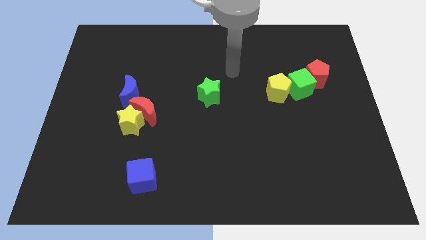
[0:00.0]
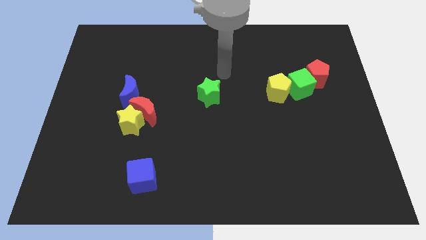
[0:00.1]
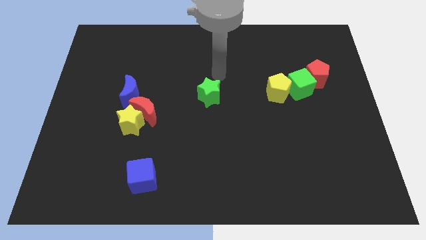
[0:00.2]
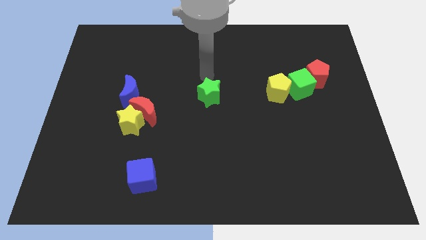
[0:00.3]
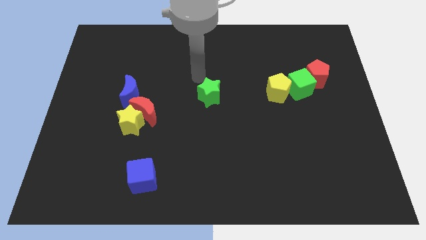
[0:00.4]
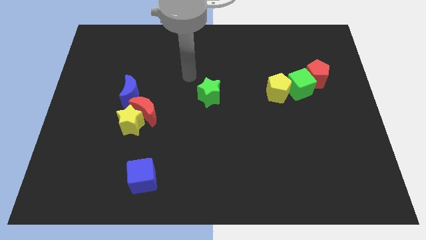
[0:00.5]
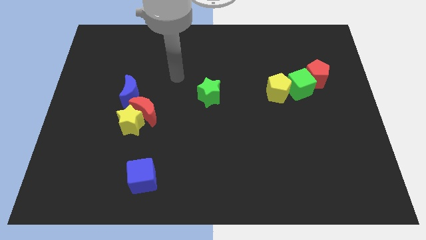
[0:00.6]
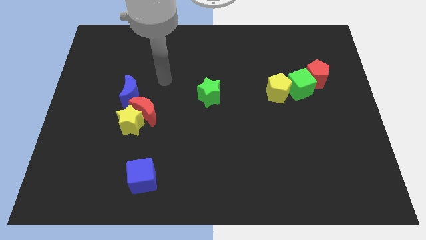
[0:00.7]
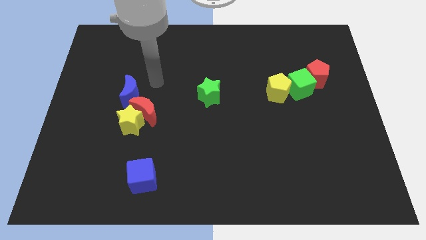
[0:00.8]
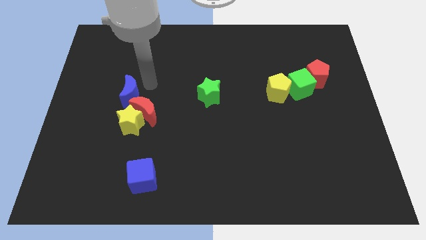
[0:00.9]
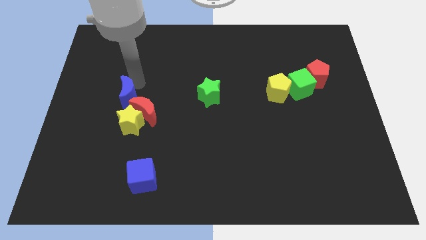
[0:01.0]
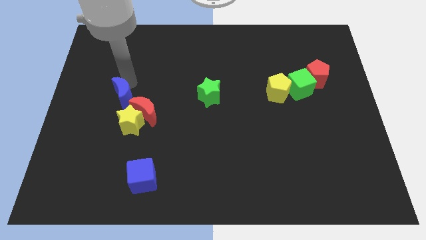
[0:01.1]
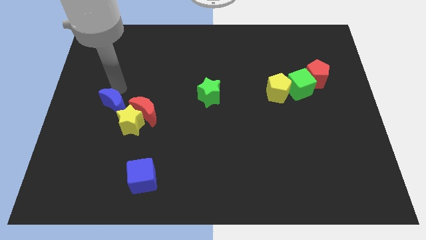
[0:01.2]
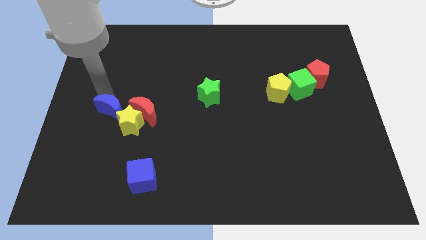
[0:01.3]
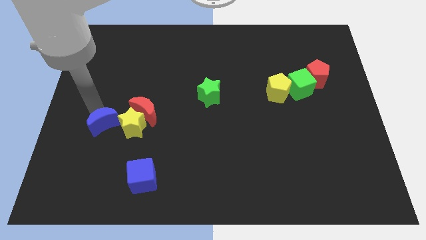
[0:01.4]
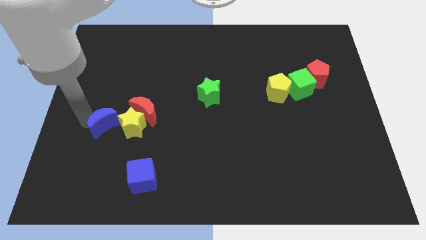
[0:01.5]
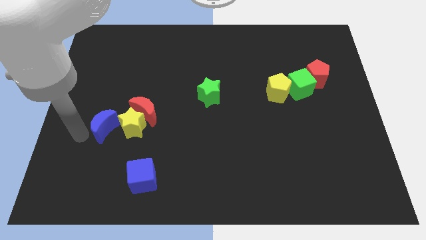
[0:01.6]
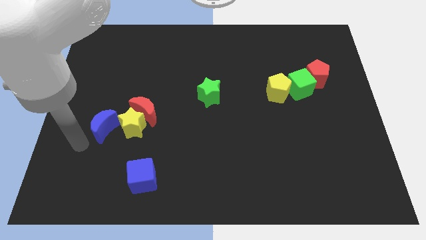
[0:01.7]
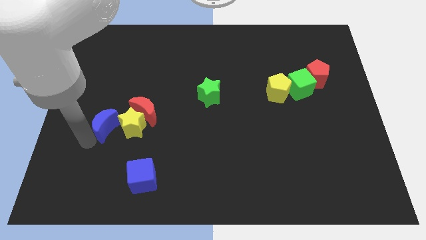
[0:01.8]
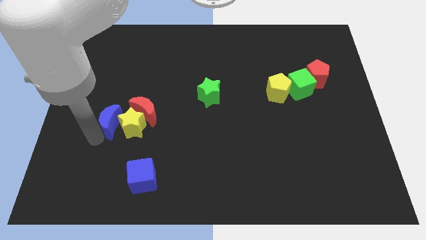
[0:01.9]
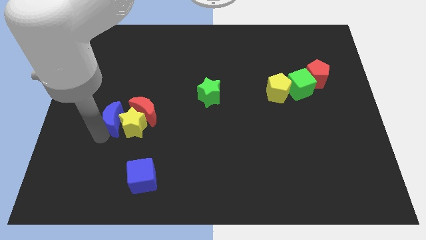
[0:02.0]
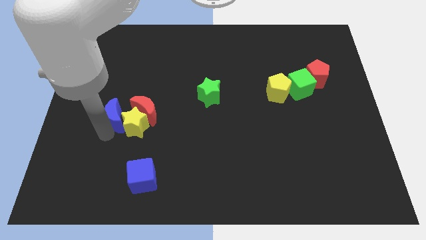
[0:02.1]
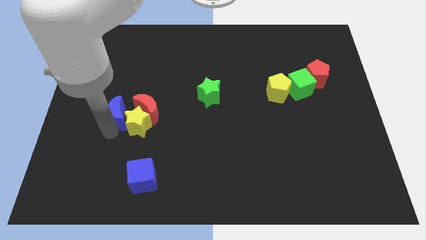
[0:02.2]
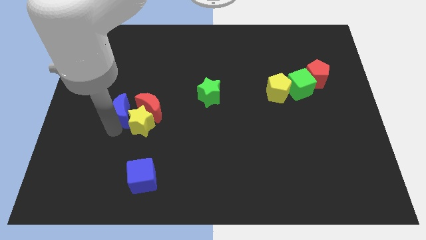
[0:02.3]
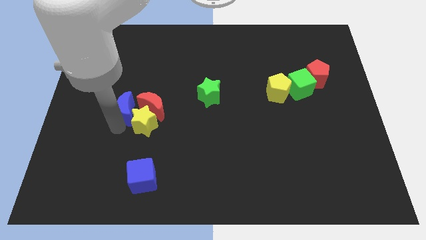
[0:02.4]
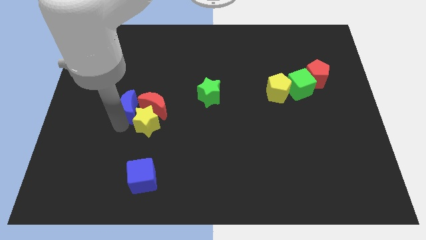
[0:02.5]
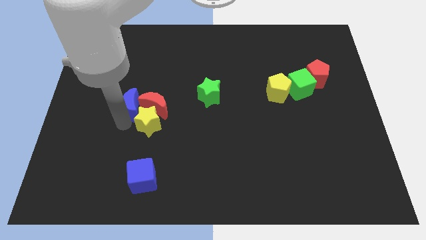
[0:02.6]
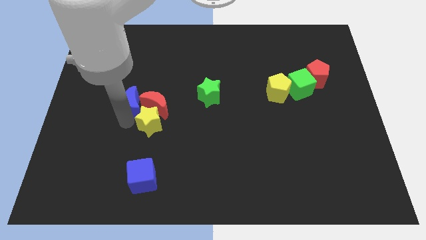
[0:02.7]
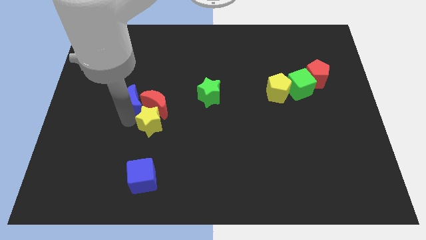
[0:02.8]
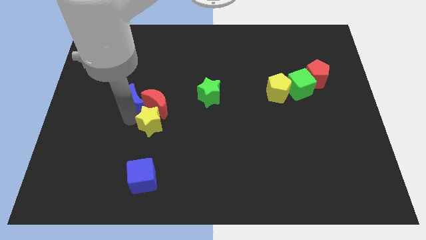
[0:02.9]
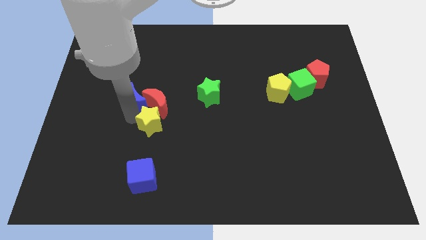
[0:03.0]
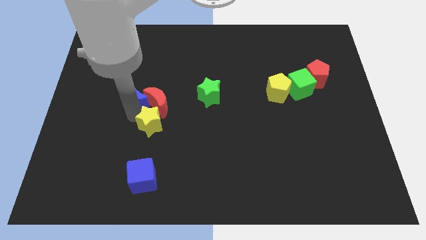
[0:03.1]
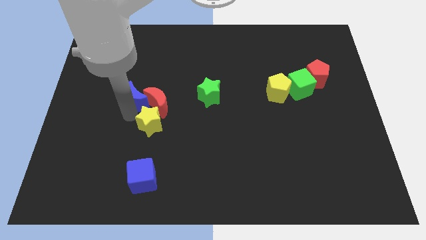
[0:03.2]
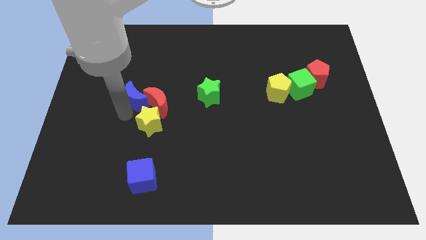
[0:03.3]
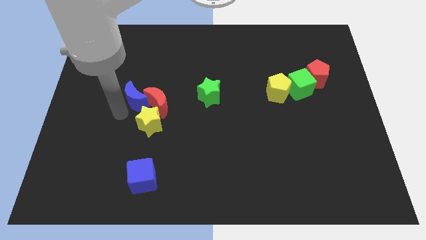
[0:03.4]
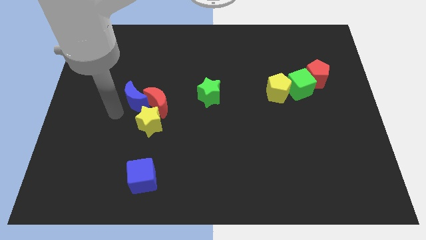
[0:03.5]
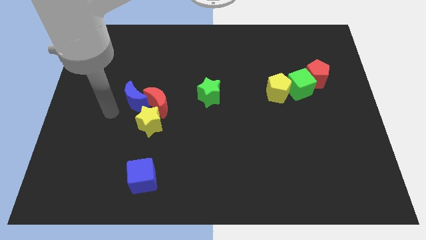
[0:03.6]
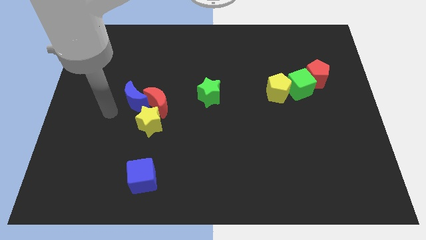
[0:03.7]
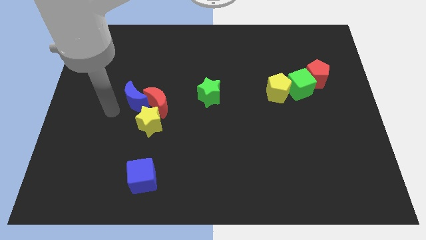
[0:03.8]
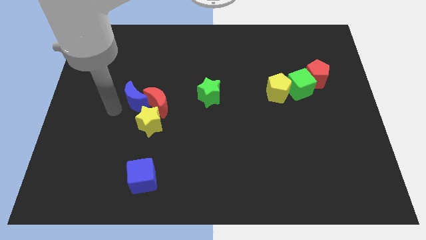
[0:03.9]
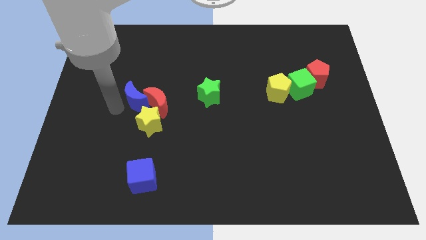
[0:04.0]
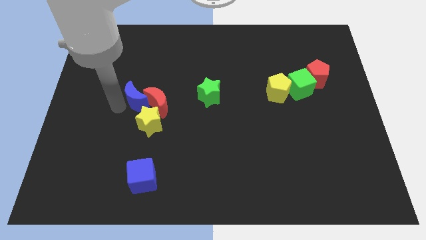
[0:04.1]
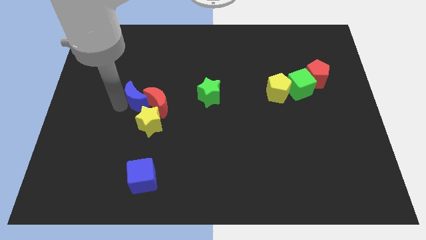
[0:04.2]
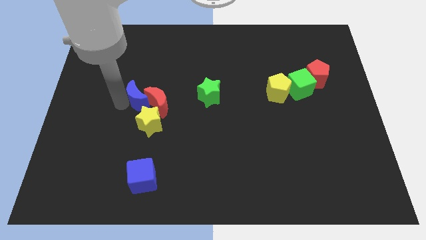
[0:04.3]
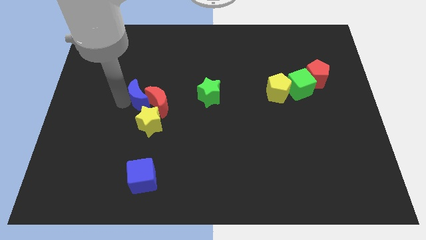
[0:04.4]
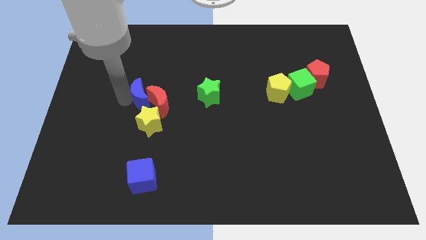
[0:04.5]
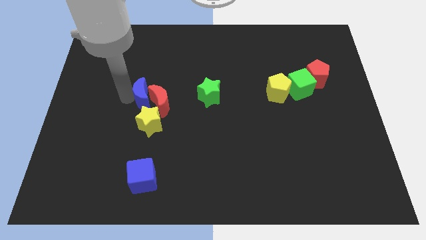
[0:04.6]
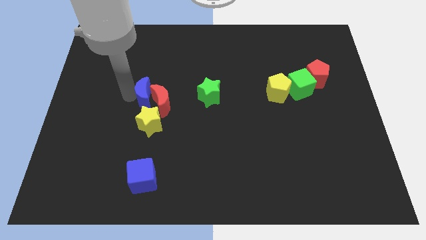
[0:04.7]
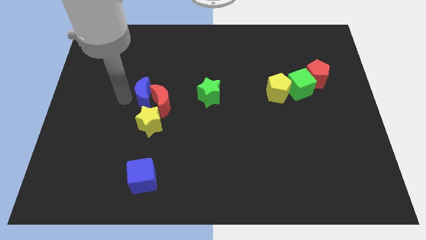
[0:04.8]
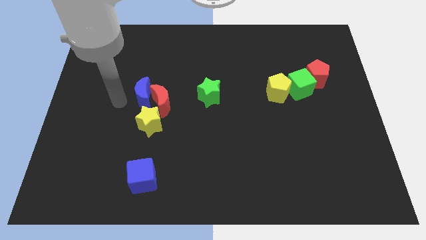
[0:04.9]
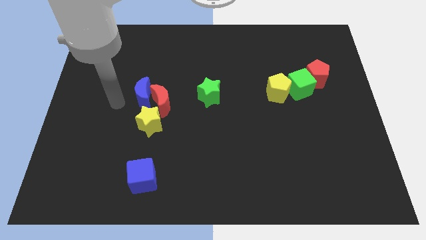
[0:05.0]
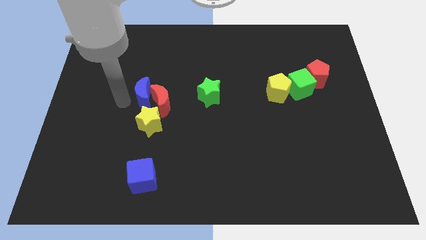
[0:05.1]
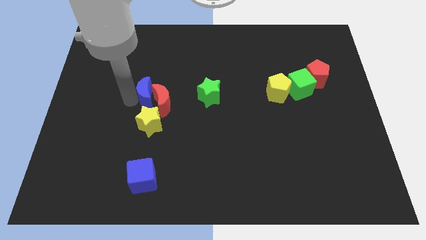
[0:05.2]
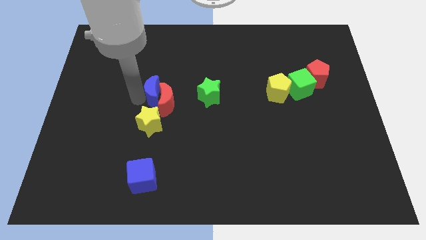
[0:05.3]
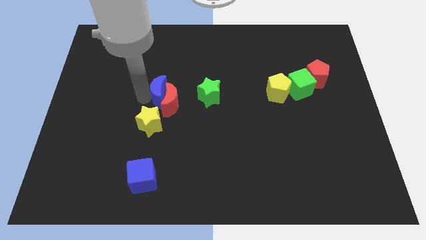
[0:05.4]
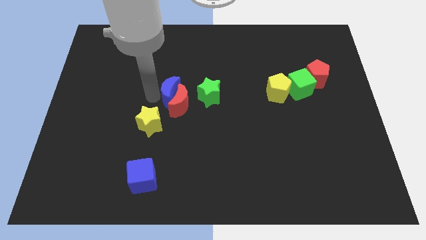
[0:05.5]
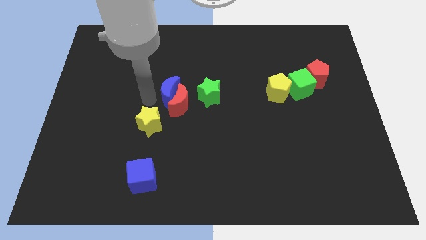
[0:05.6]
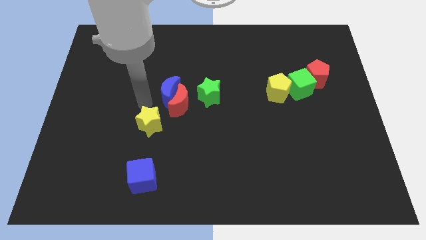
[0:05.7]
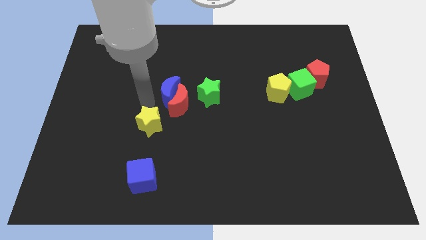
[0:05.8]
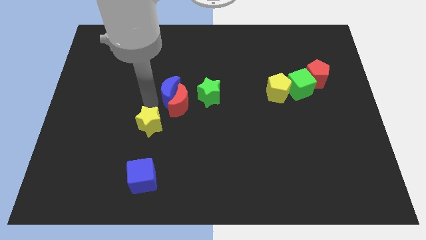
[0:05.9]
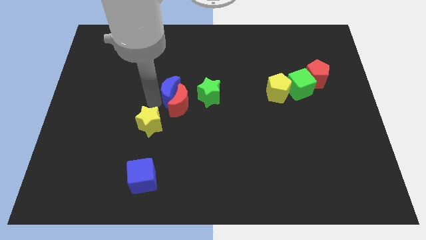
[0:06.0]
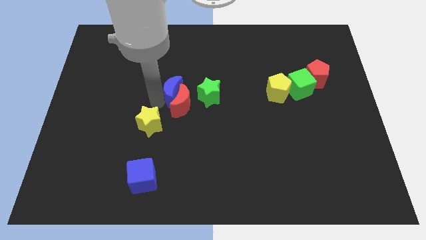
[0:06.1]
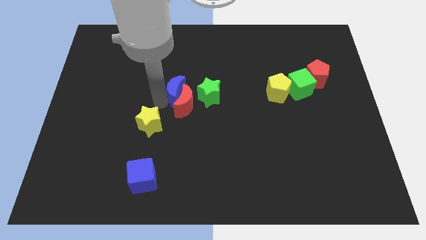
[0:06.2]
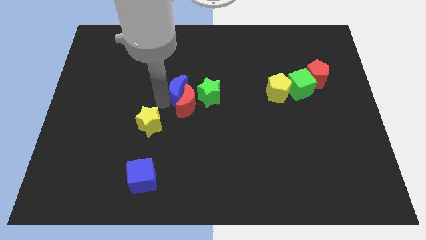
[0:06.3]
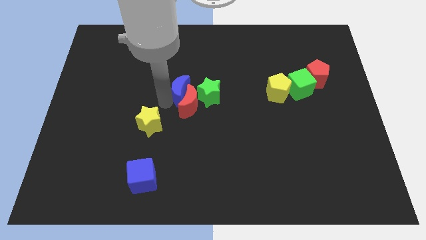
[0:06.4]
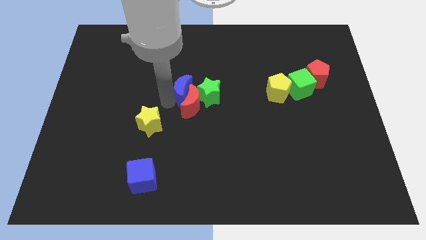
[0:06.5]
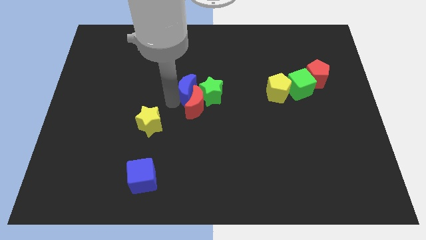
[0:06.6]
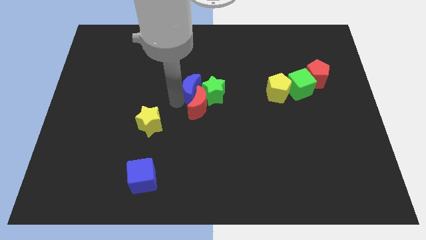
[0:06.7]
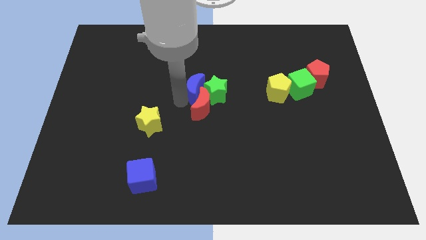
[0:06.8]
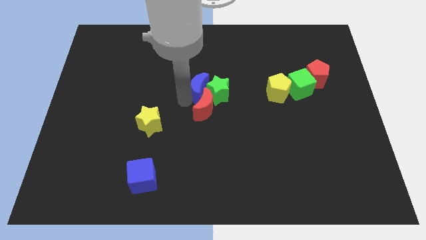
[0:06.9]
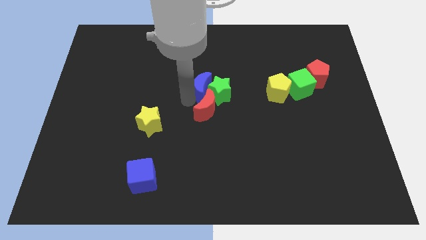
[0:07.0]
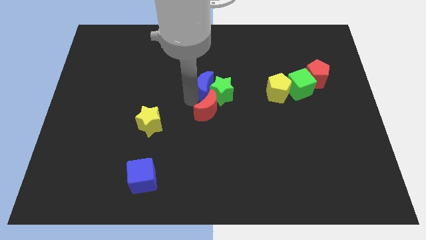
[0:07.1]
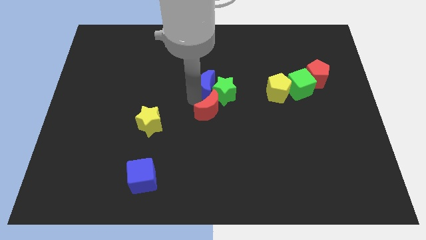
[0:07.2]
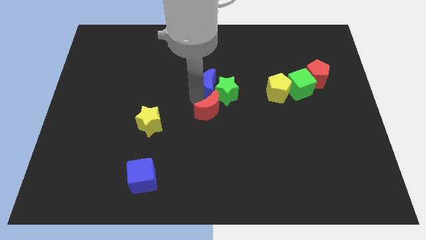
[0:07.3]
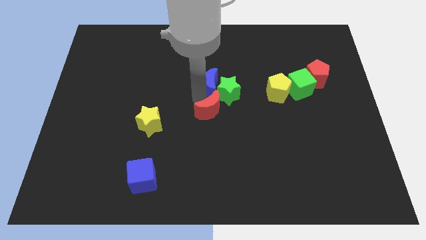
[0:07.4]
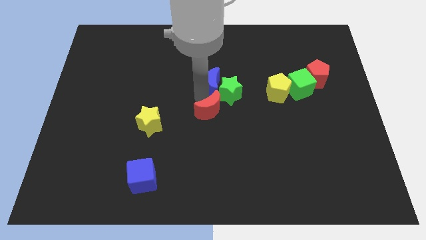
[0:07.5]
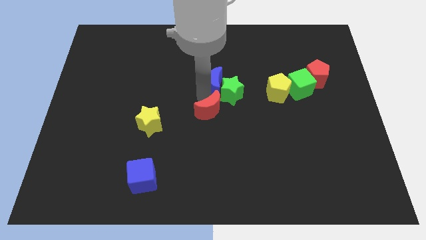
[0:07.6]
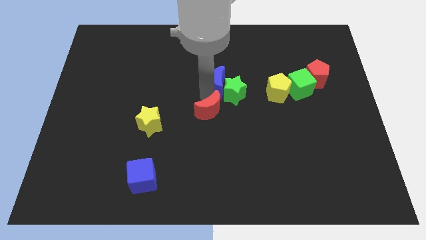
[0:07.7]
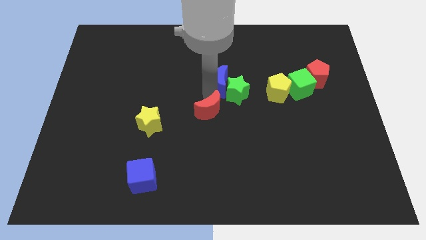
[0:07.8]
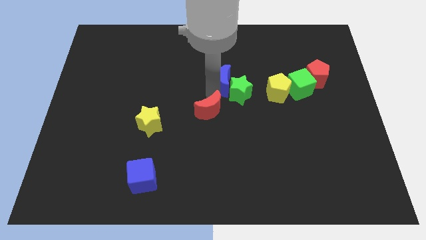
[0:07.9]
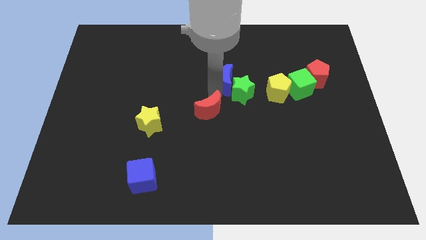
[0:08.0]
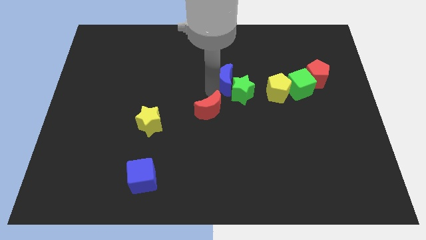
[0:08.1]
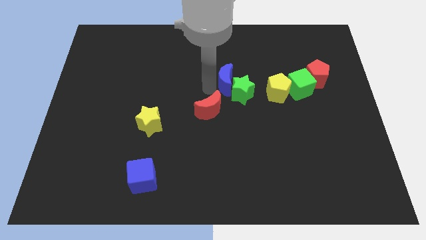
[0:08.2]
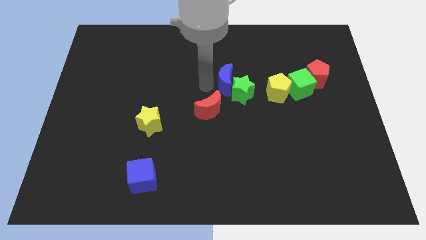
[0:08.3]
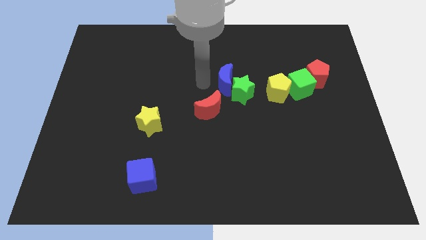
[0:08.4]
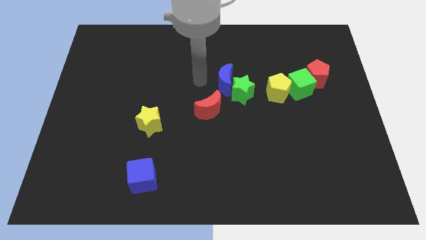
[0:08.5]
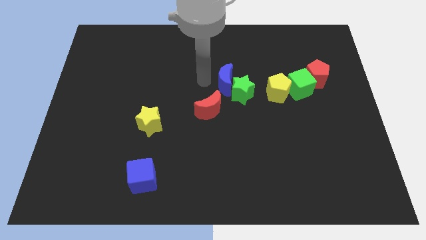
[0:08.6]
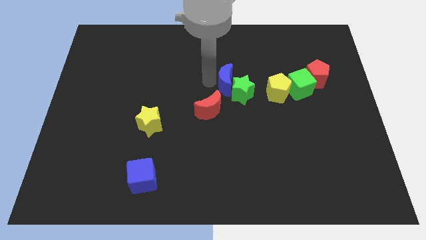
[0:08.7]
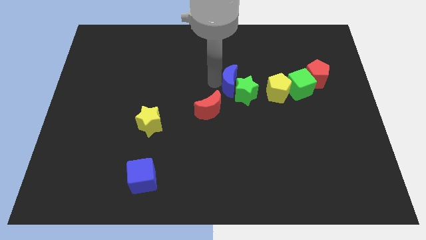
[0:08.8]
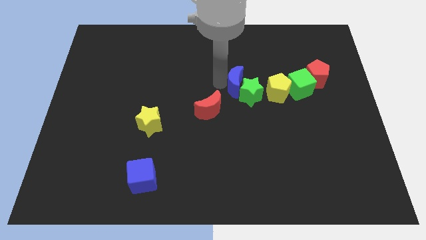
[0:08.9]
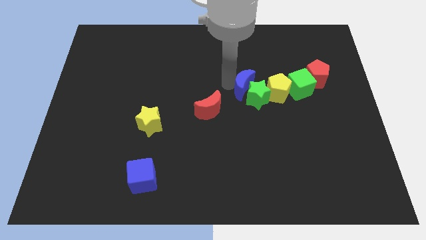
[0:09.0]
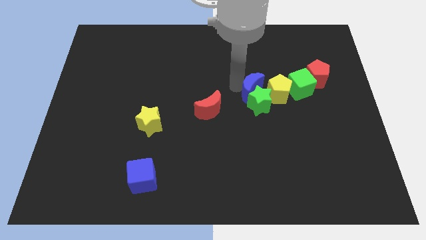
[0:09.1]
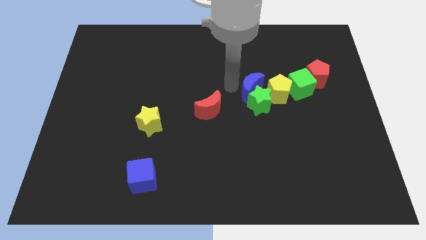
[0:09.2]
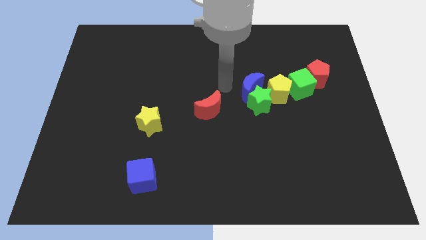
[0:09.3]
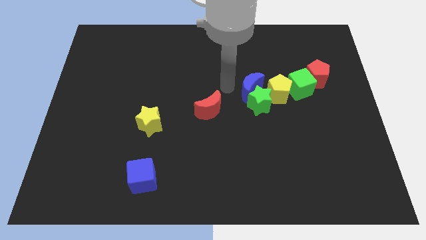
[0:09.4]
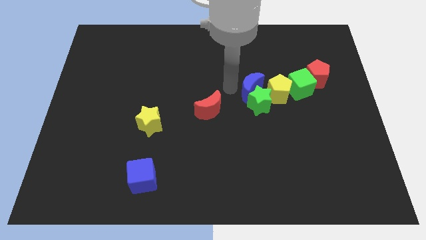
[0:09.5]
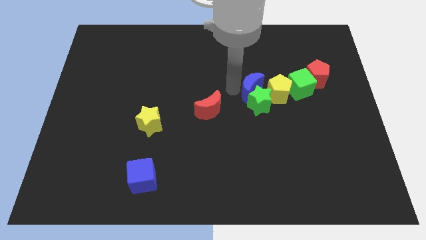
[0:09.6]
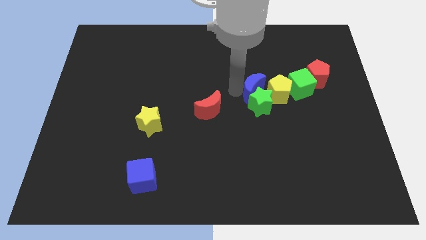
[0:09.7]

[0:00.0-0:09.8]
slide the blue moon next to the yellow pentagon
